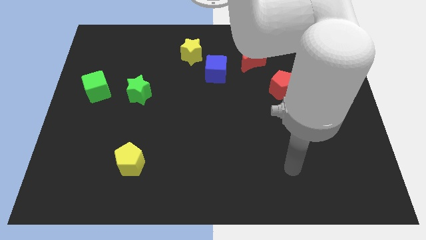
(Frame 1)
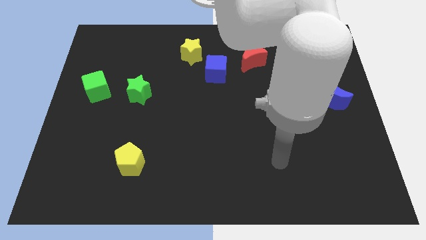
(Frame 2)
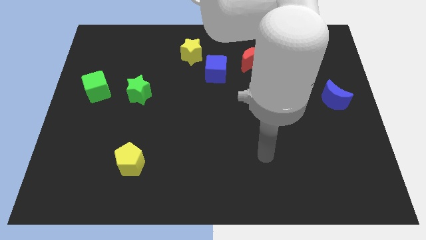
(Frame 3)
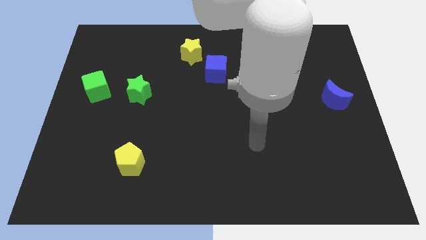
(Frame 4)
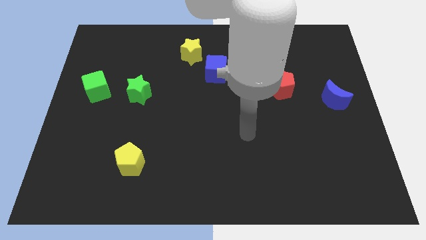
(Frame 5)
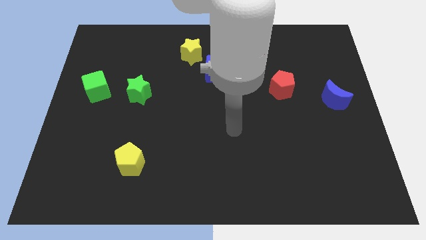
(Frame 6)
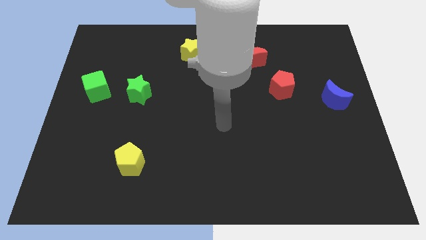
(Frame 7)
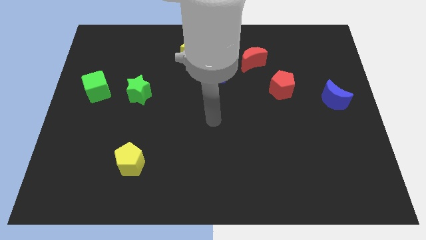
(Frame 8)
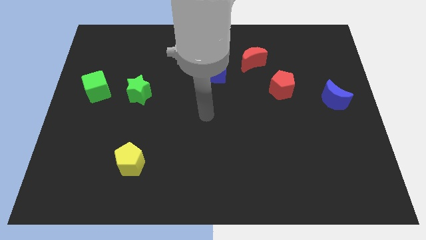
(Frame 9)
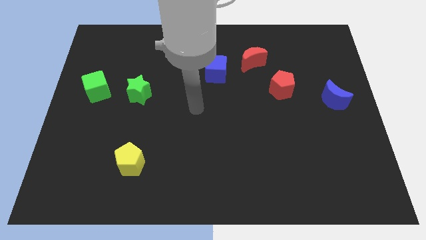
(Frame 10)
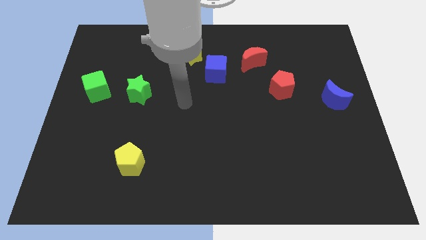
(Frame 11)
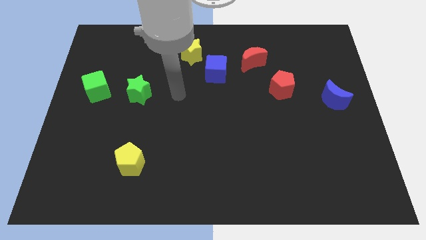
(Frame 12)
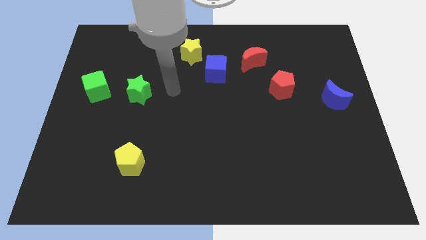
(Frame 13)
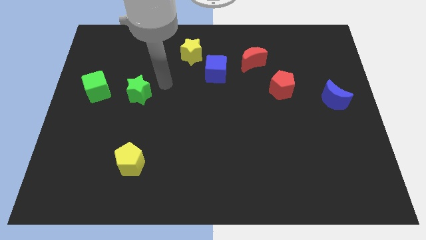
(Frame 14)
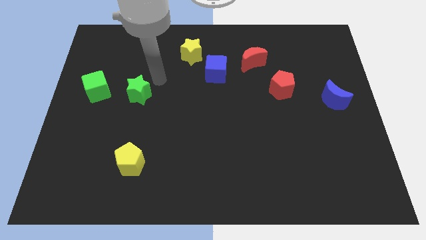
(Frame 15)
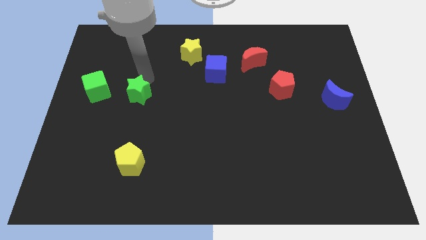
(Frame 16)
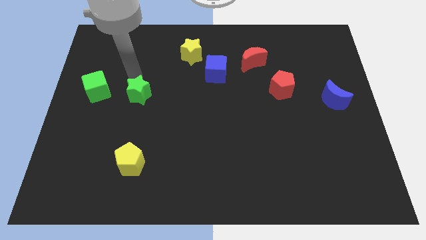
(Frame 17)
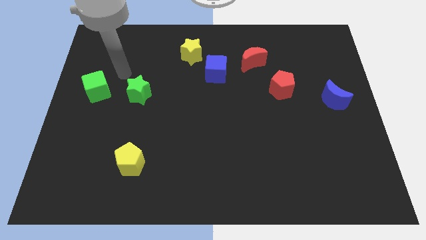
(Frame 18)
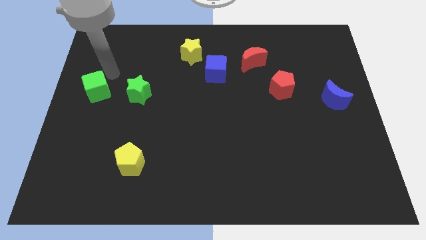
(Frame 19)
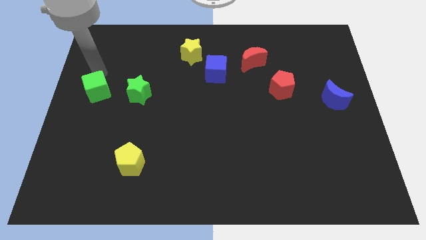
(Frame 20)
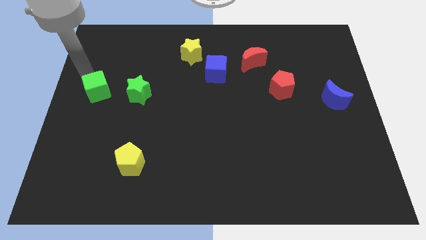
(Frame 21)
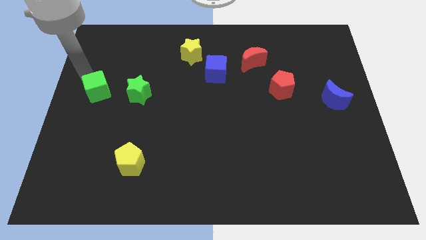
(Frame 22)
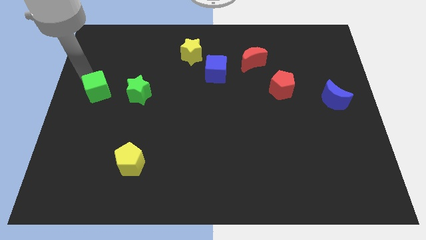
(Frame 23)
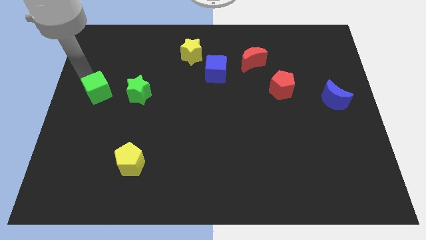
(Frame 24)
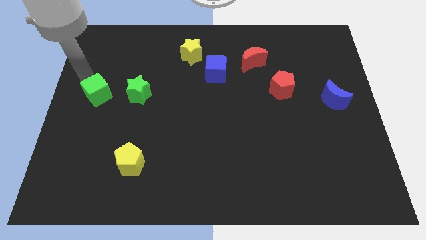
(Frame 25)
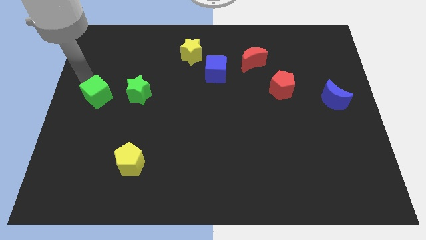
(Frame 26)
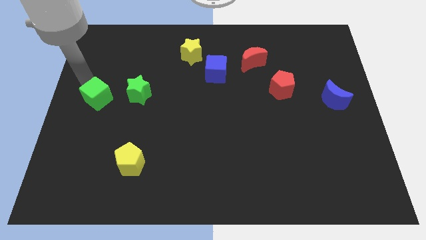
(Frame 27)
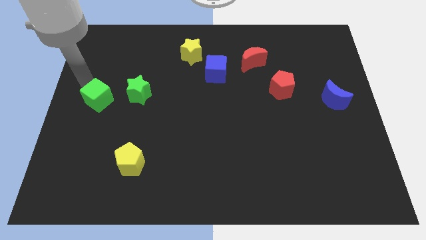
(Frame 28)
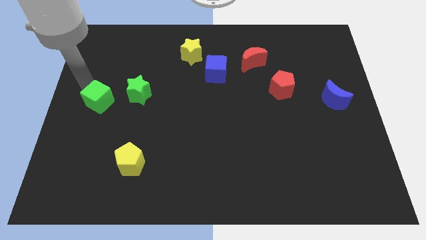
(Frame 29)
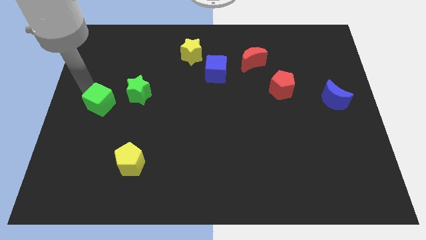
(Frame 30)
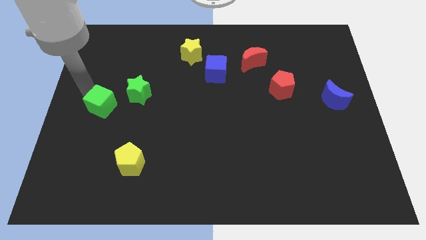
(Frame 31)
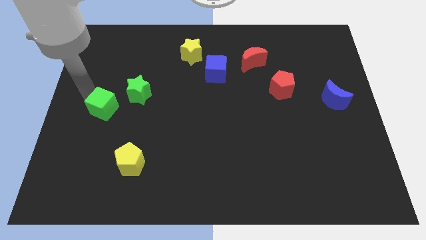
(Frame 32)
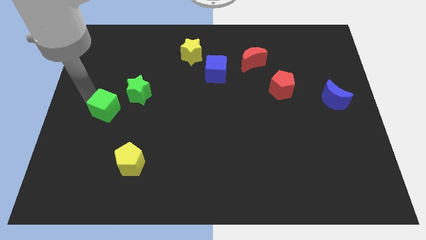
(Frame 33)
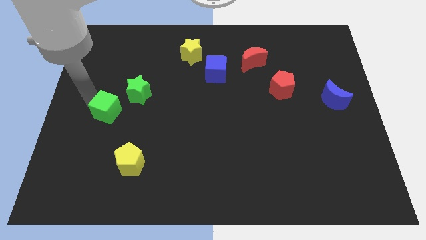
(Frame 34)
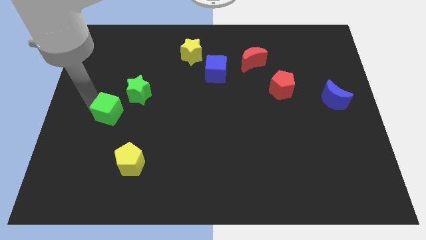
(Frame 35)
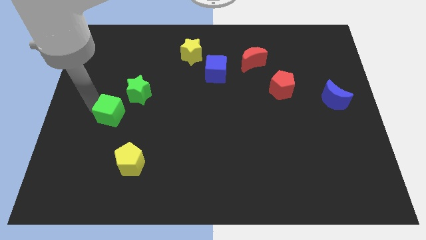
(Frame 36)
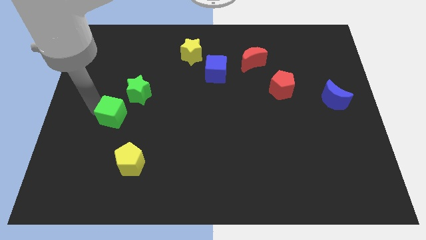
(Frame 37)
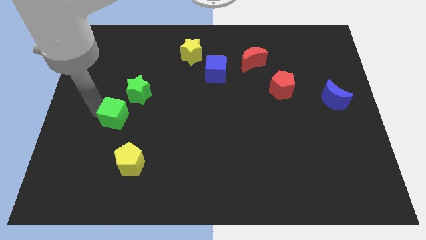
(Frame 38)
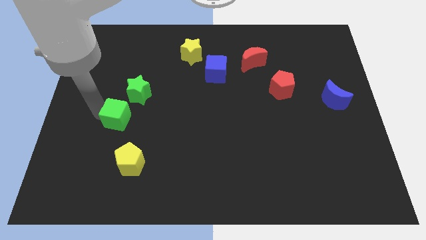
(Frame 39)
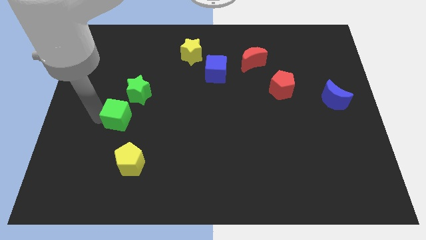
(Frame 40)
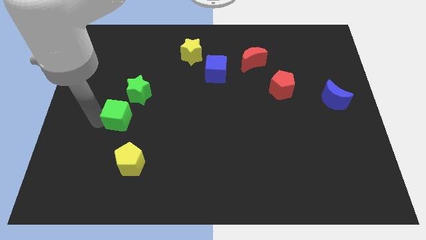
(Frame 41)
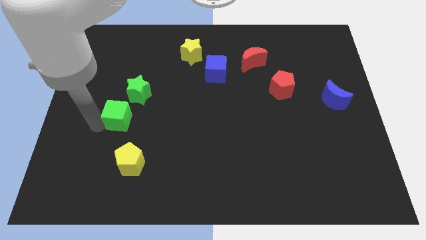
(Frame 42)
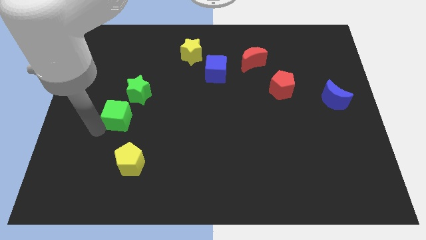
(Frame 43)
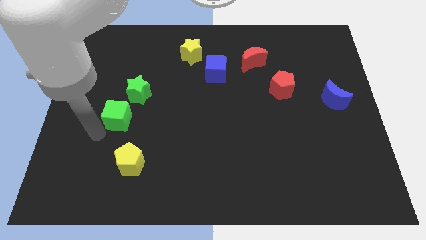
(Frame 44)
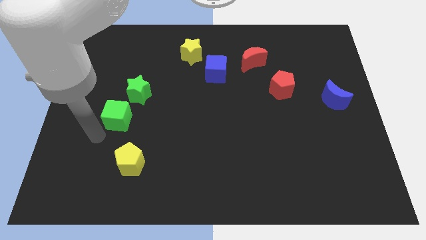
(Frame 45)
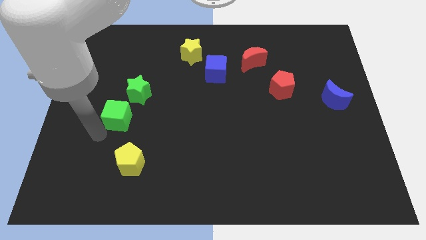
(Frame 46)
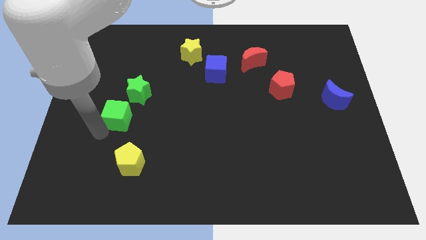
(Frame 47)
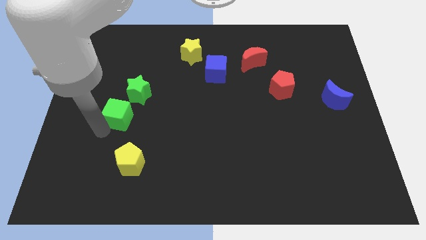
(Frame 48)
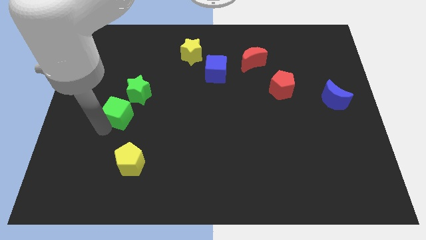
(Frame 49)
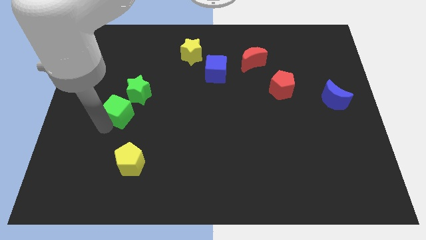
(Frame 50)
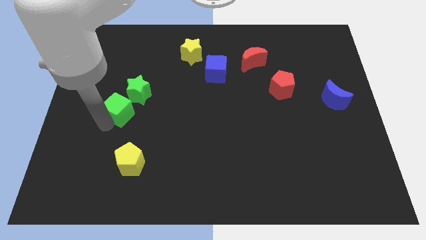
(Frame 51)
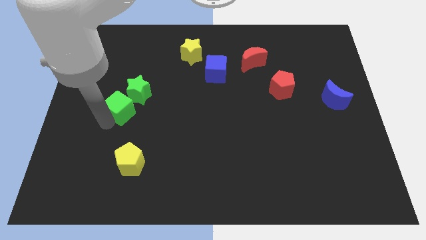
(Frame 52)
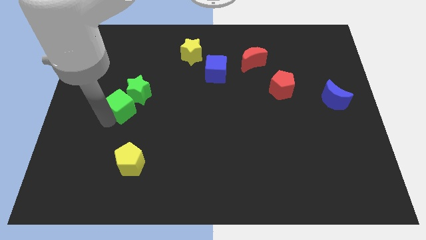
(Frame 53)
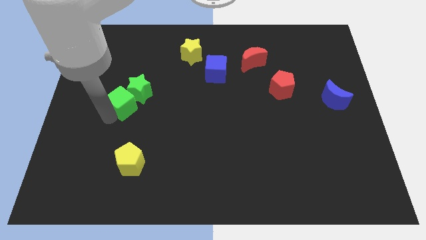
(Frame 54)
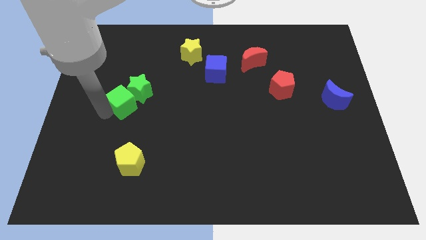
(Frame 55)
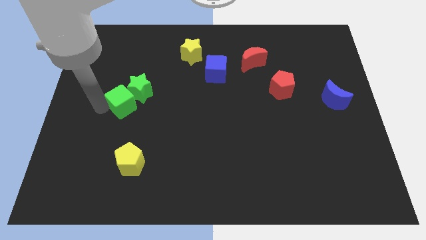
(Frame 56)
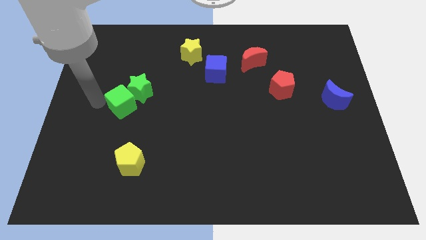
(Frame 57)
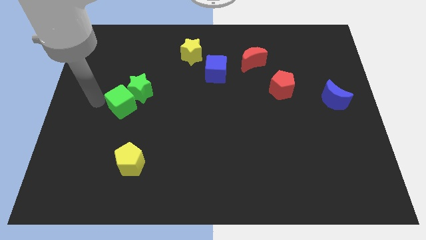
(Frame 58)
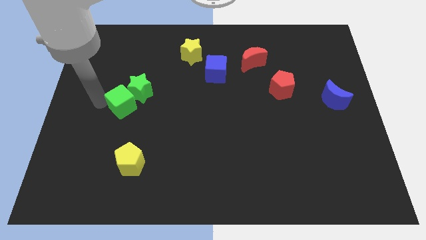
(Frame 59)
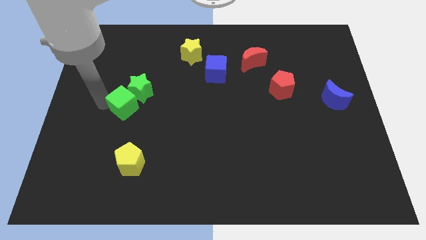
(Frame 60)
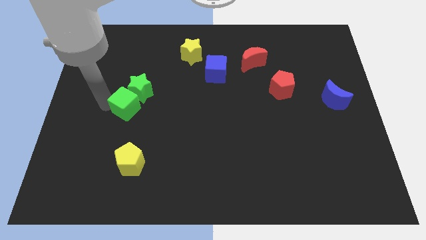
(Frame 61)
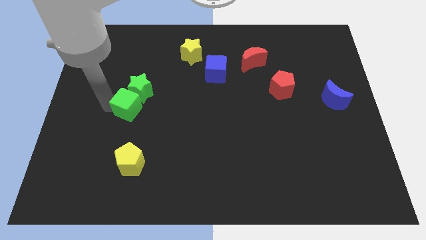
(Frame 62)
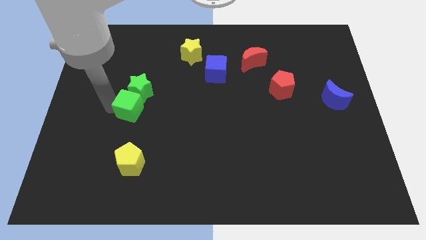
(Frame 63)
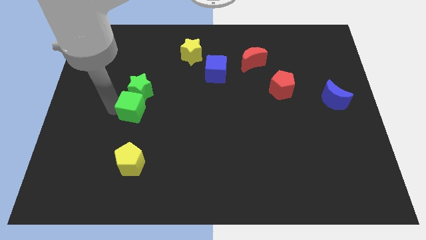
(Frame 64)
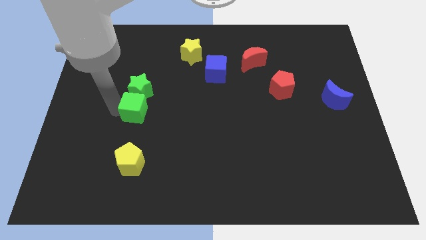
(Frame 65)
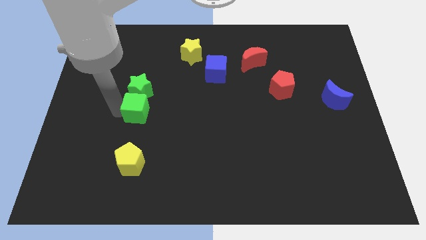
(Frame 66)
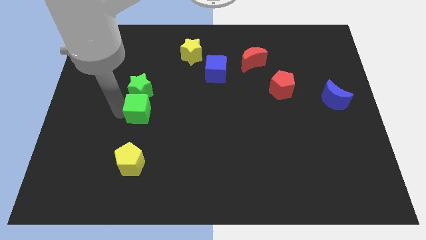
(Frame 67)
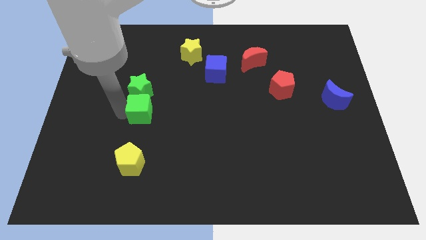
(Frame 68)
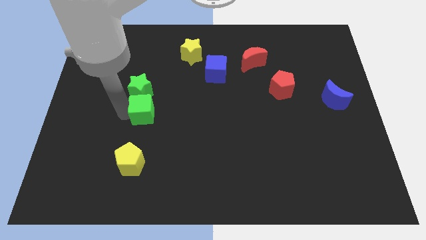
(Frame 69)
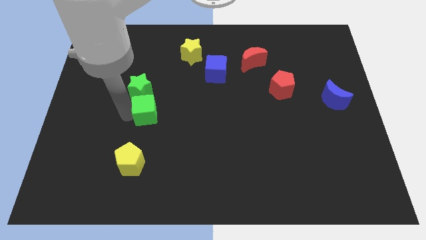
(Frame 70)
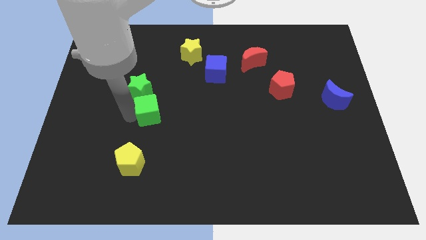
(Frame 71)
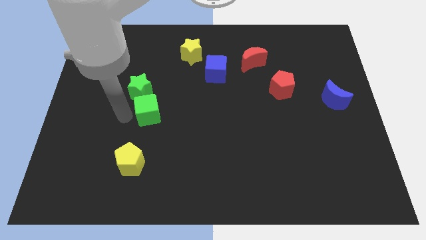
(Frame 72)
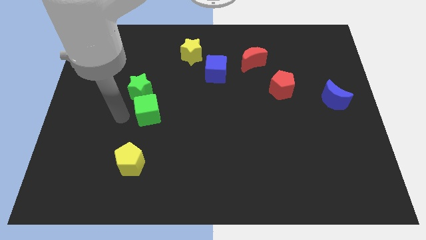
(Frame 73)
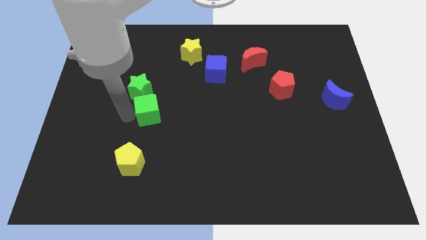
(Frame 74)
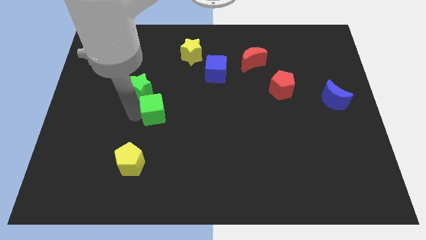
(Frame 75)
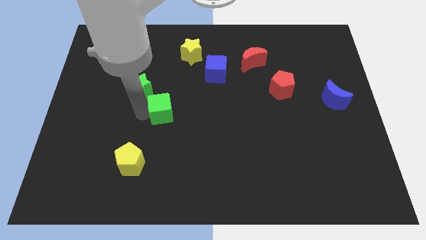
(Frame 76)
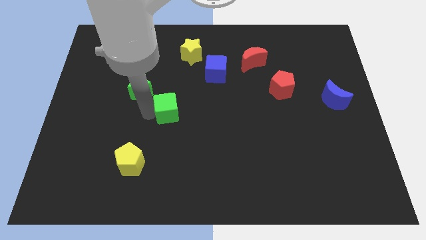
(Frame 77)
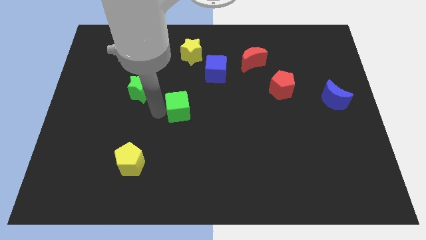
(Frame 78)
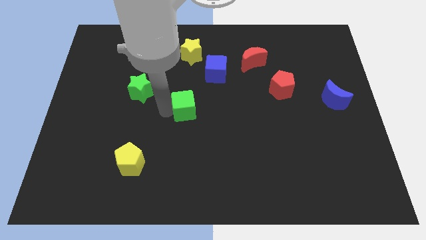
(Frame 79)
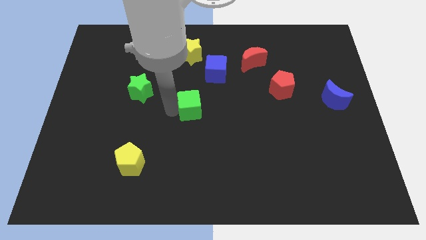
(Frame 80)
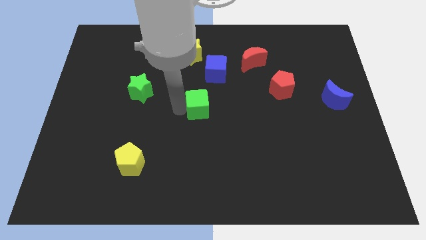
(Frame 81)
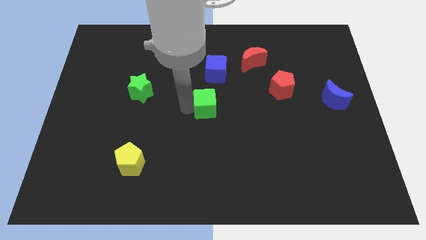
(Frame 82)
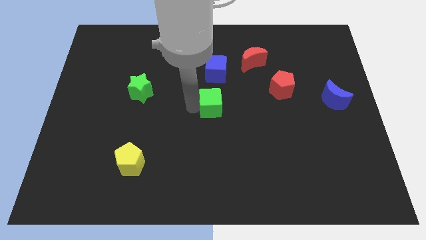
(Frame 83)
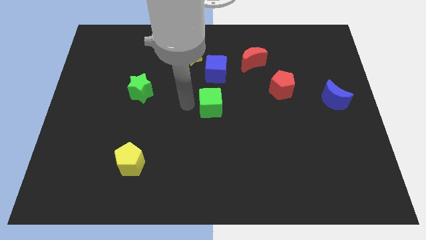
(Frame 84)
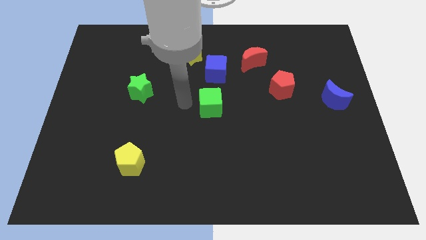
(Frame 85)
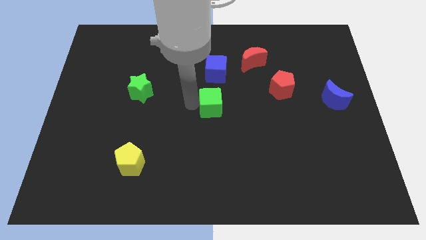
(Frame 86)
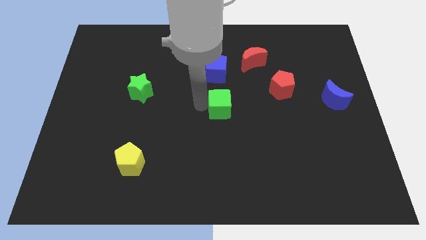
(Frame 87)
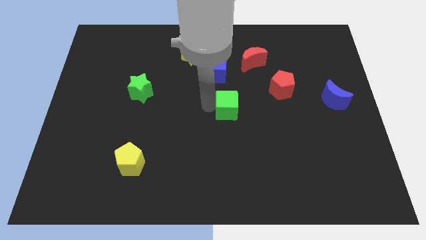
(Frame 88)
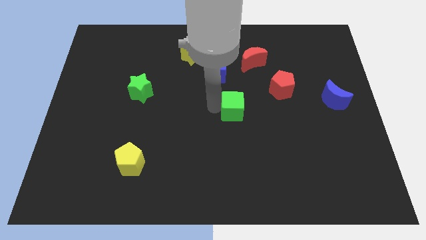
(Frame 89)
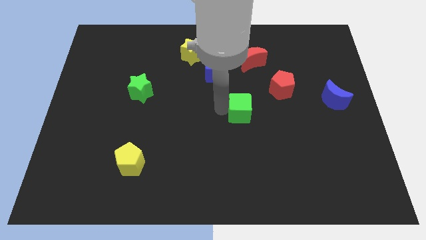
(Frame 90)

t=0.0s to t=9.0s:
push the green cube to the bottom left side of the red pentagon
